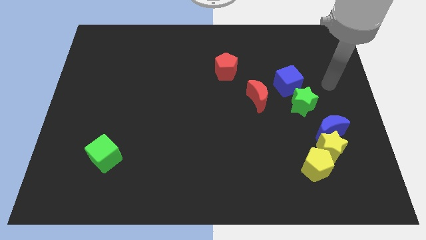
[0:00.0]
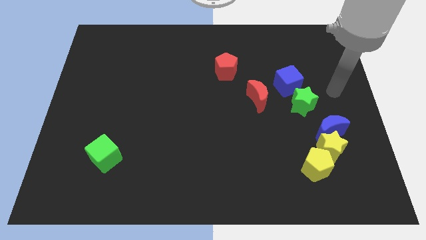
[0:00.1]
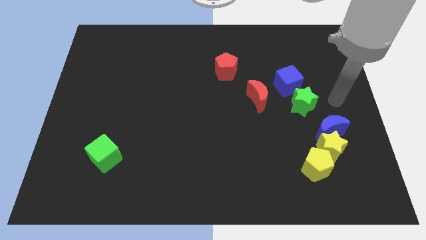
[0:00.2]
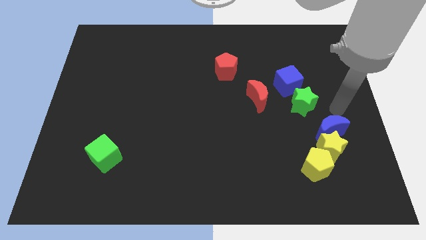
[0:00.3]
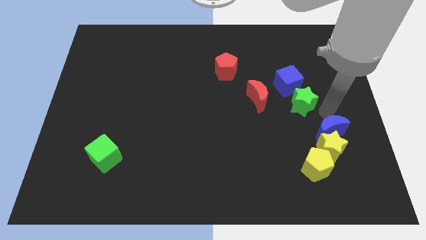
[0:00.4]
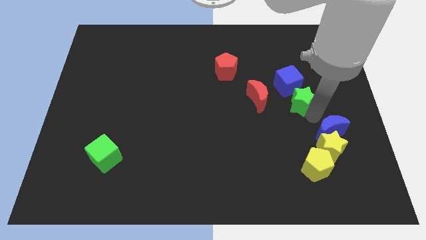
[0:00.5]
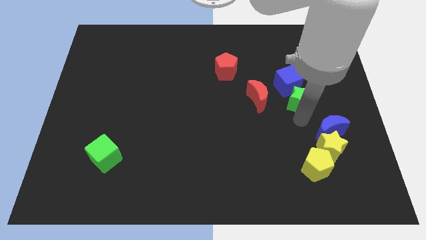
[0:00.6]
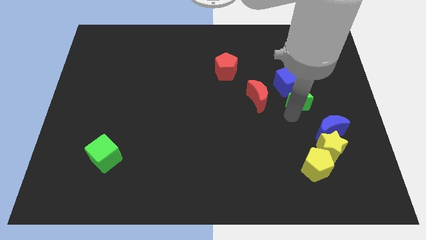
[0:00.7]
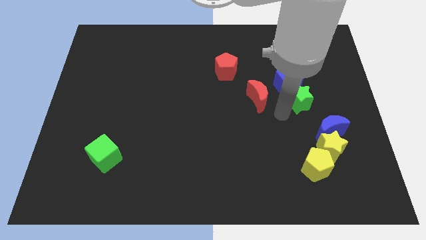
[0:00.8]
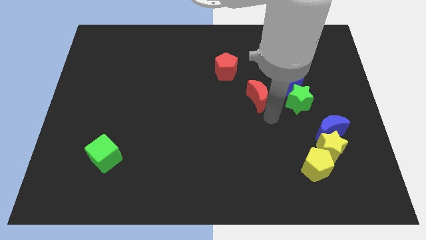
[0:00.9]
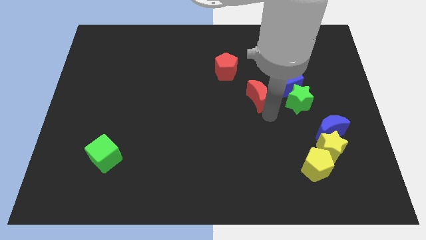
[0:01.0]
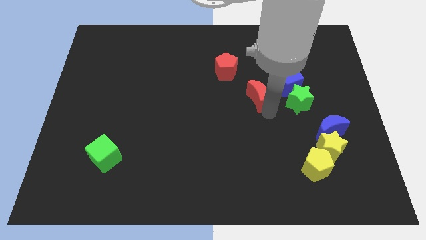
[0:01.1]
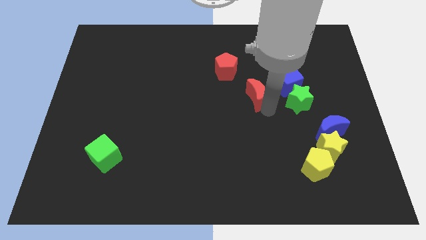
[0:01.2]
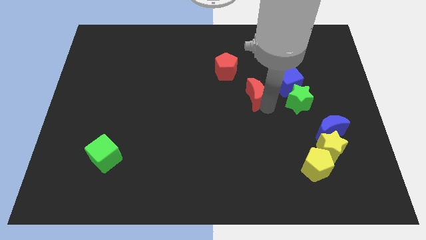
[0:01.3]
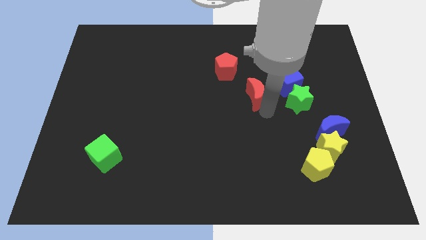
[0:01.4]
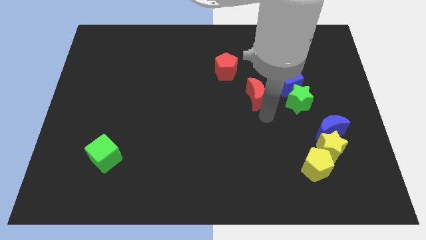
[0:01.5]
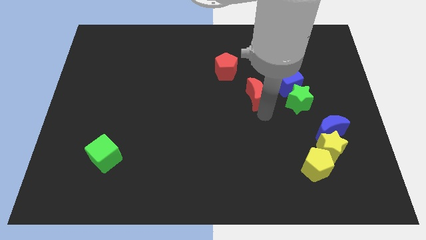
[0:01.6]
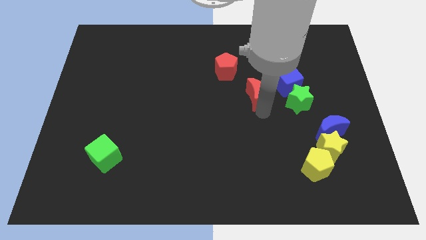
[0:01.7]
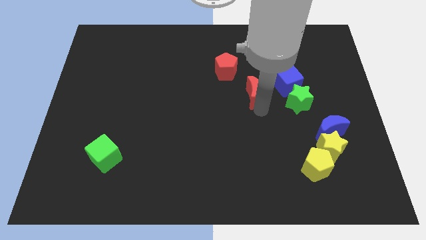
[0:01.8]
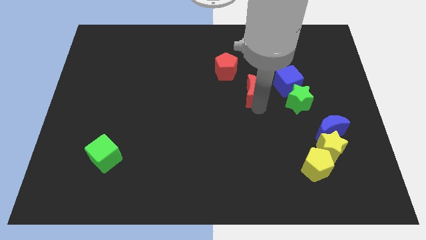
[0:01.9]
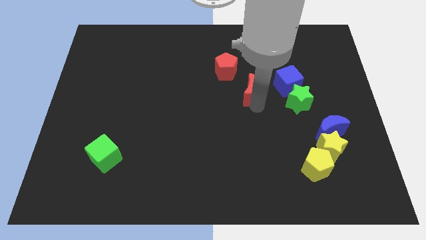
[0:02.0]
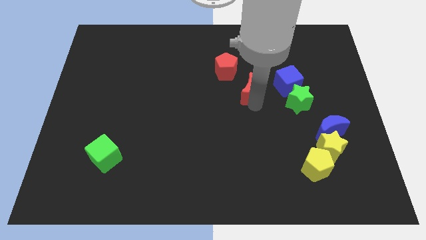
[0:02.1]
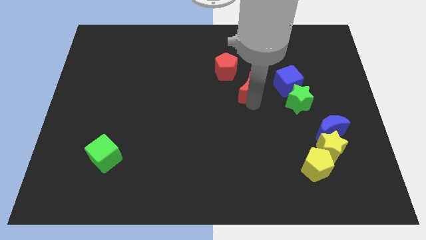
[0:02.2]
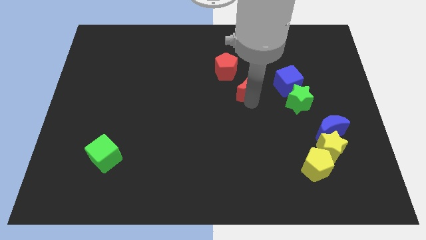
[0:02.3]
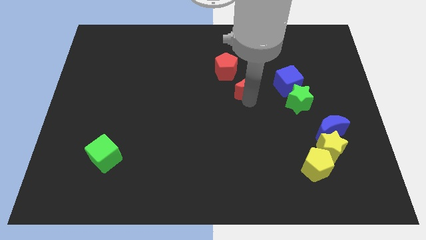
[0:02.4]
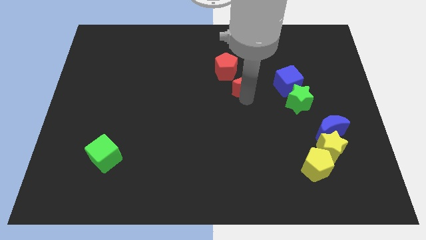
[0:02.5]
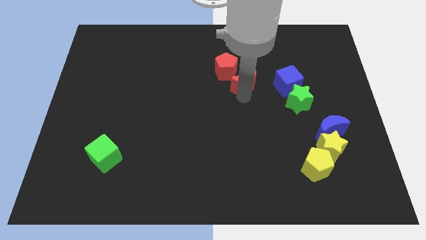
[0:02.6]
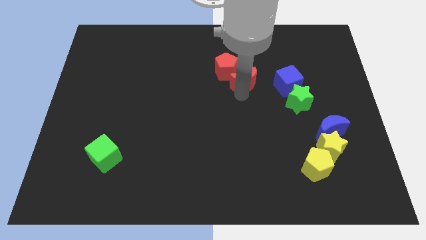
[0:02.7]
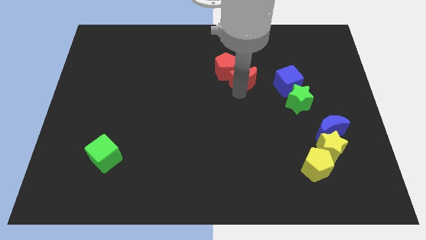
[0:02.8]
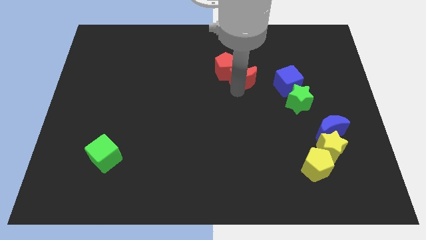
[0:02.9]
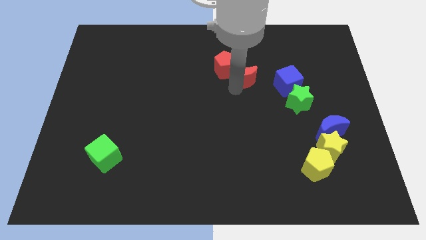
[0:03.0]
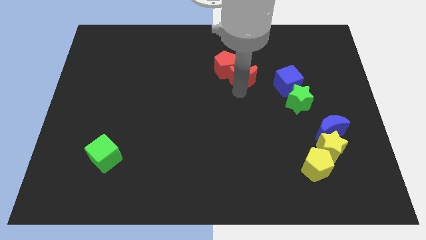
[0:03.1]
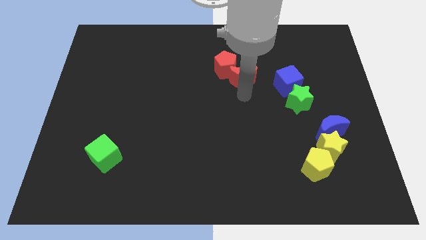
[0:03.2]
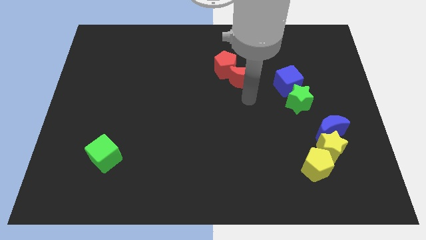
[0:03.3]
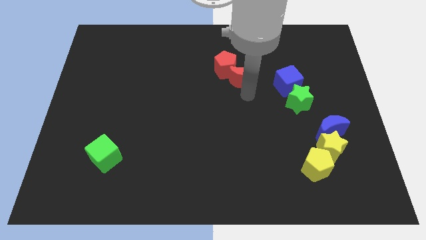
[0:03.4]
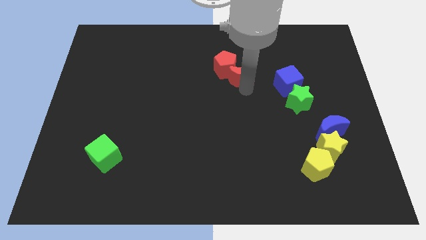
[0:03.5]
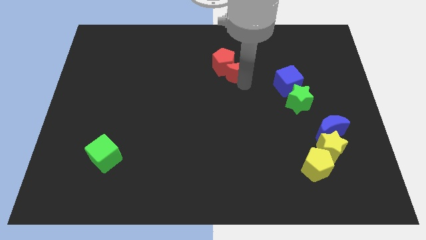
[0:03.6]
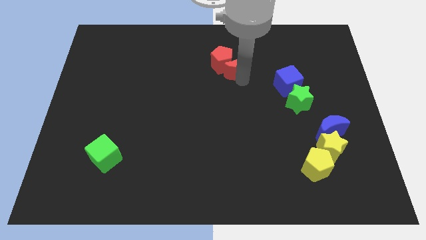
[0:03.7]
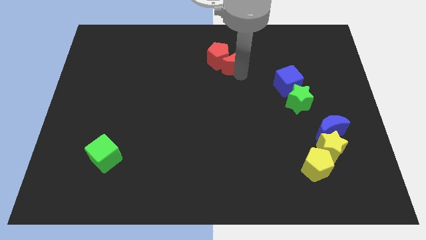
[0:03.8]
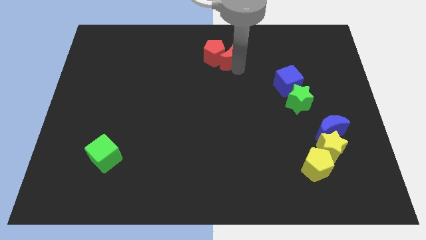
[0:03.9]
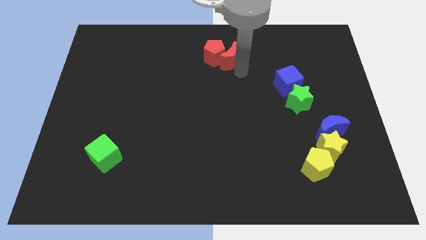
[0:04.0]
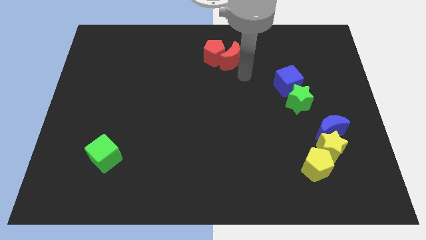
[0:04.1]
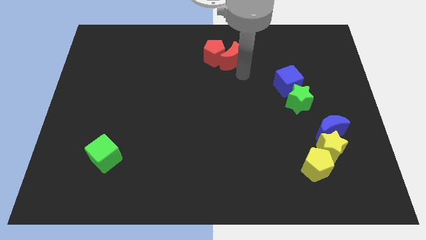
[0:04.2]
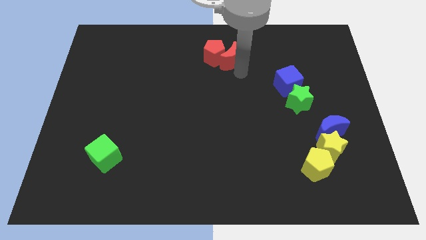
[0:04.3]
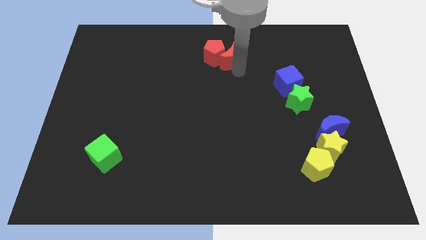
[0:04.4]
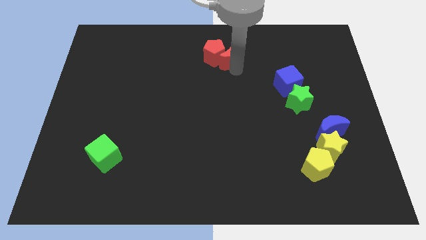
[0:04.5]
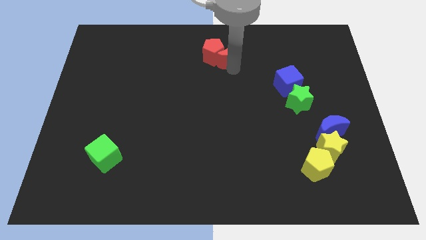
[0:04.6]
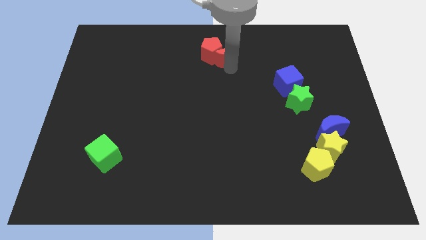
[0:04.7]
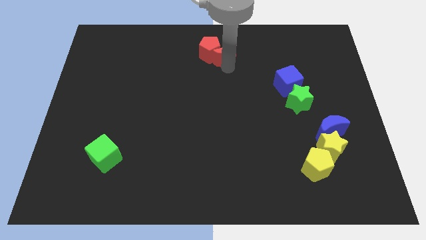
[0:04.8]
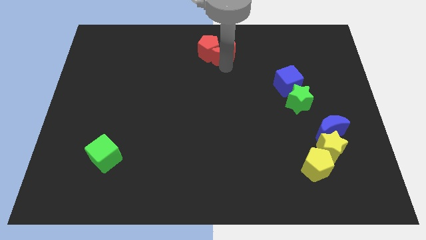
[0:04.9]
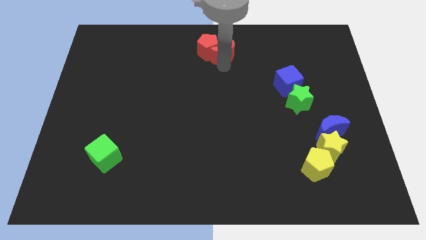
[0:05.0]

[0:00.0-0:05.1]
put the red moon to the top side

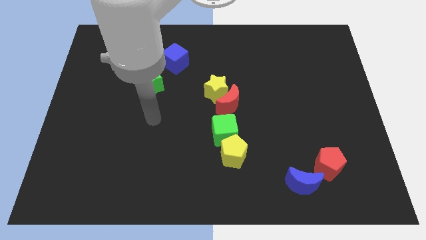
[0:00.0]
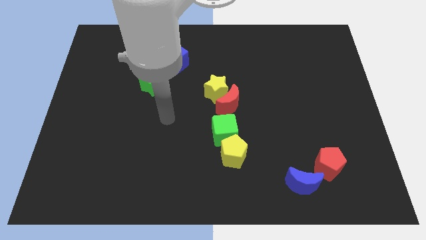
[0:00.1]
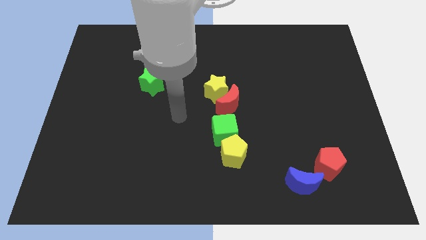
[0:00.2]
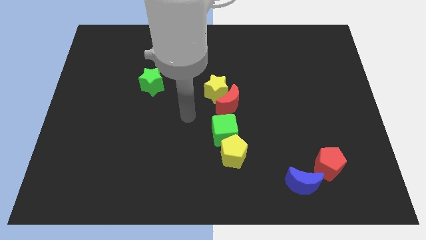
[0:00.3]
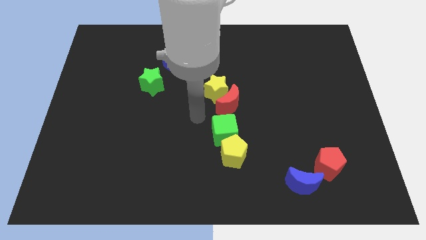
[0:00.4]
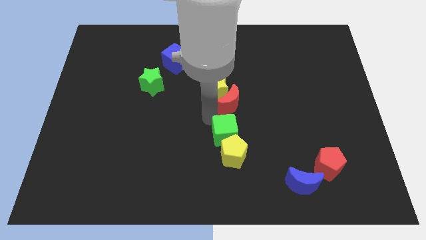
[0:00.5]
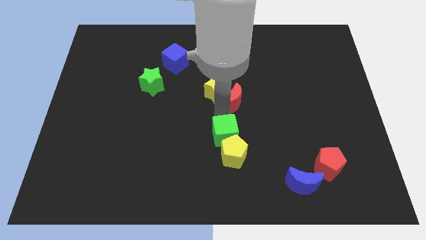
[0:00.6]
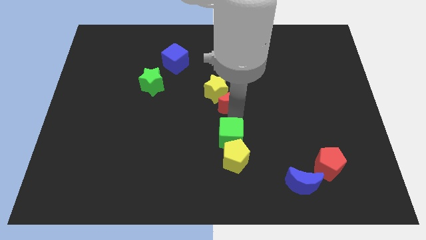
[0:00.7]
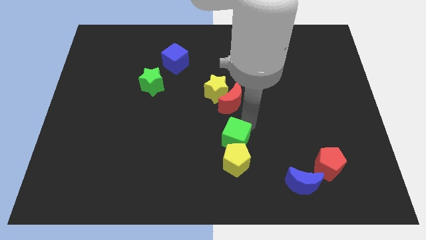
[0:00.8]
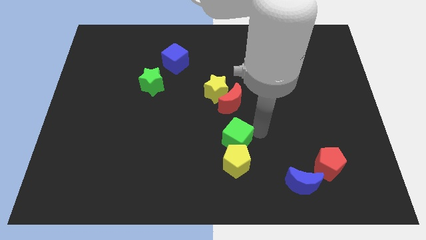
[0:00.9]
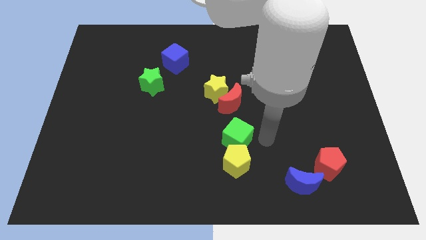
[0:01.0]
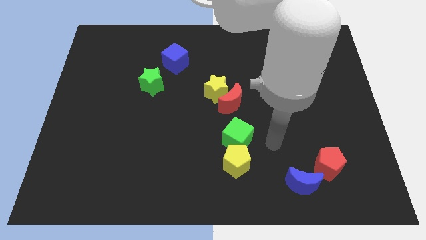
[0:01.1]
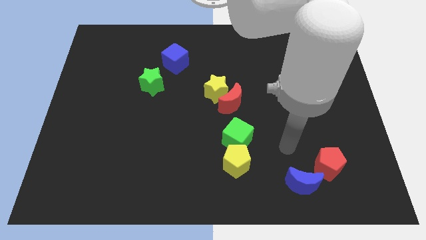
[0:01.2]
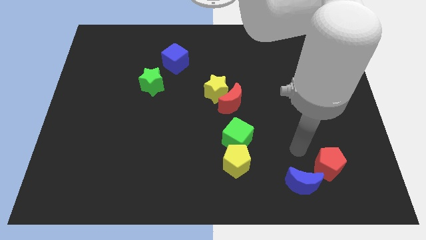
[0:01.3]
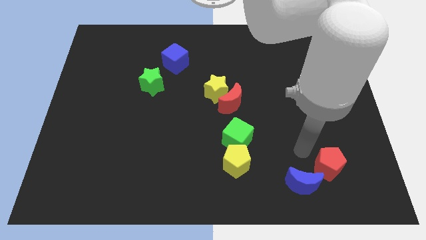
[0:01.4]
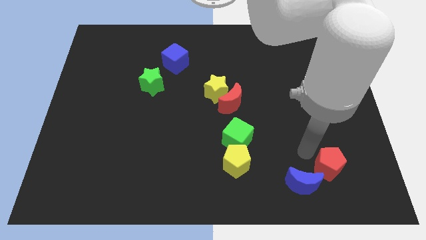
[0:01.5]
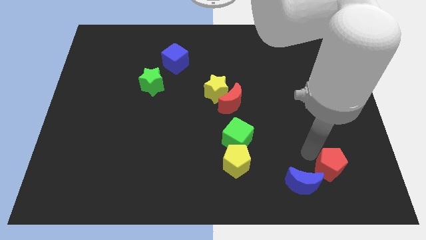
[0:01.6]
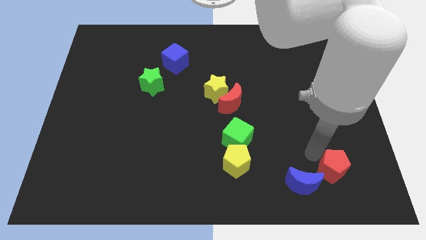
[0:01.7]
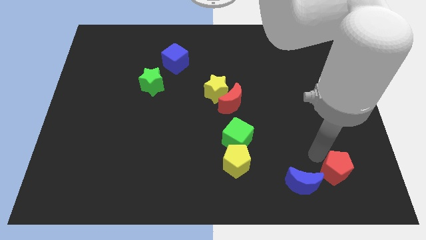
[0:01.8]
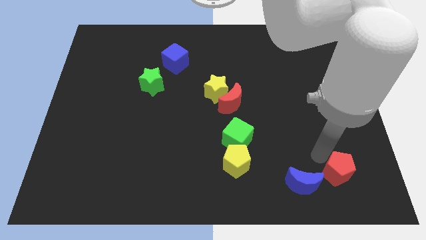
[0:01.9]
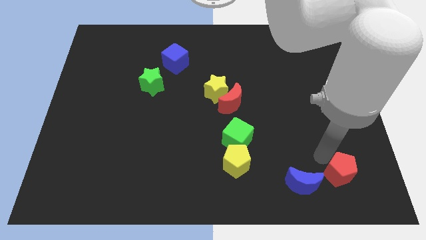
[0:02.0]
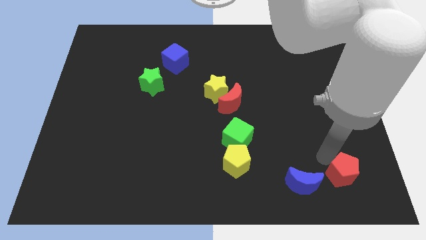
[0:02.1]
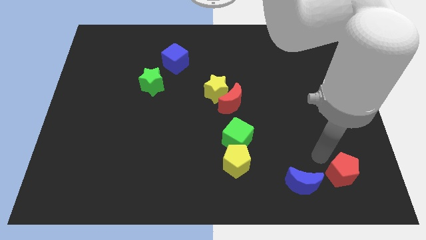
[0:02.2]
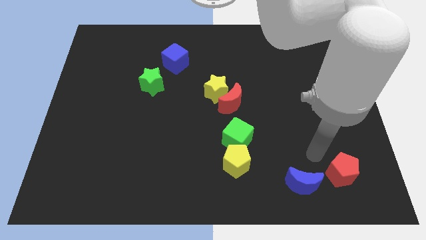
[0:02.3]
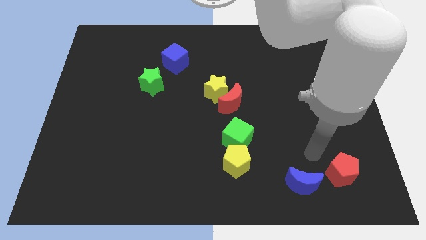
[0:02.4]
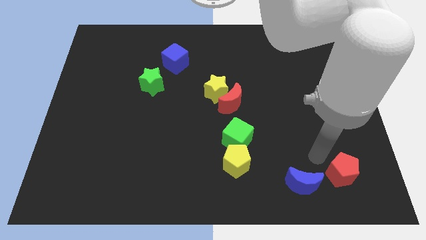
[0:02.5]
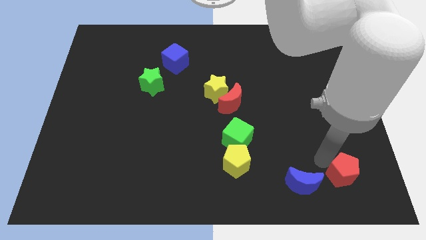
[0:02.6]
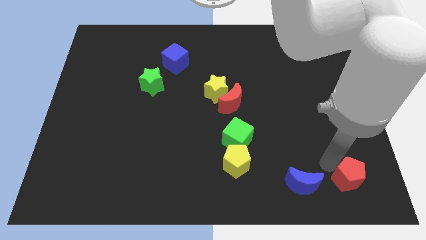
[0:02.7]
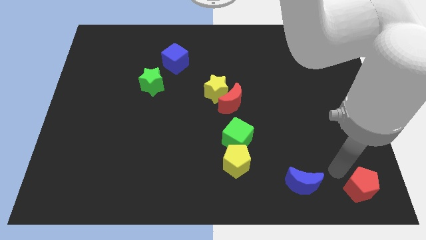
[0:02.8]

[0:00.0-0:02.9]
move the red pentagon to the bottom right of the board
